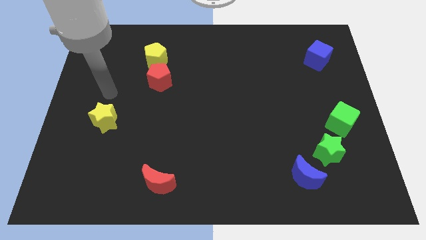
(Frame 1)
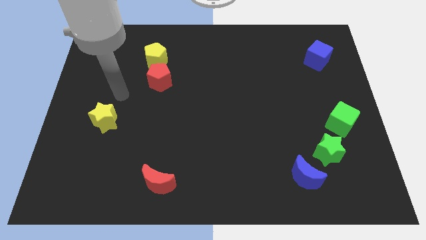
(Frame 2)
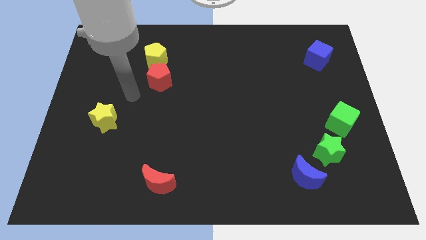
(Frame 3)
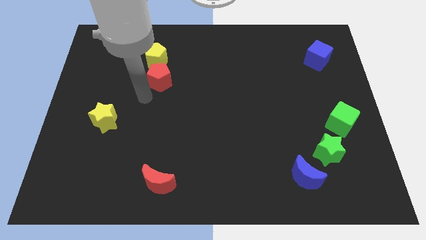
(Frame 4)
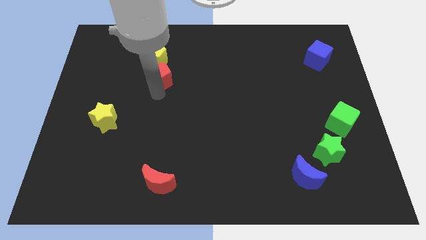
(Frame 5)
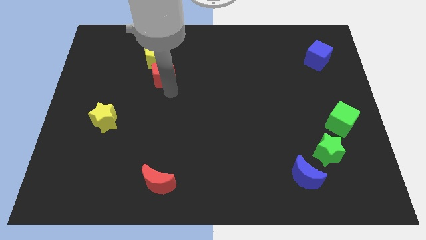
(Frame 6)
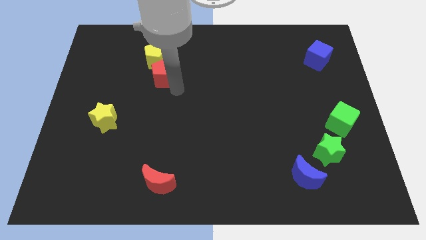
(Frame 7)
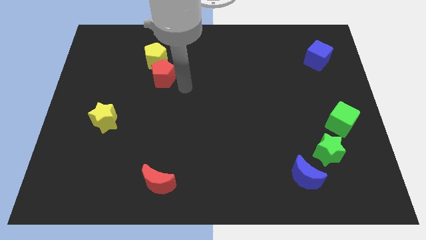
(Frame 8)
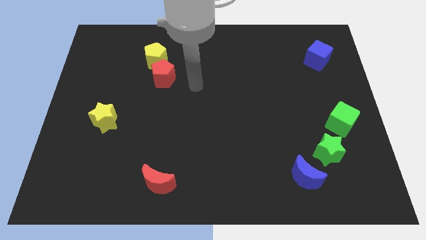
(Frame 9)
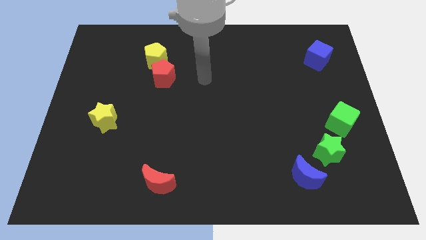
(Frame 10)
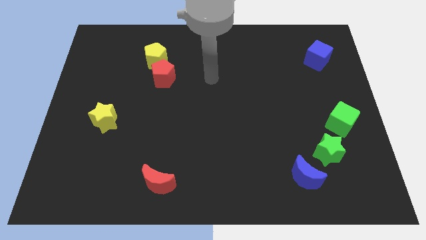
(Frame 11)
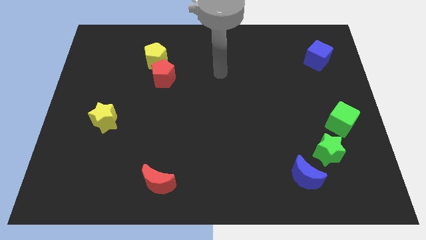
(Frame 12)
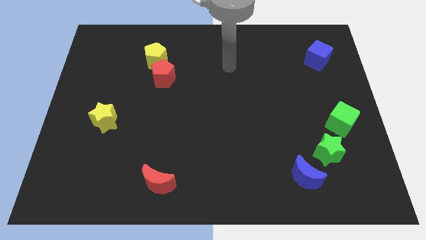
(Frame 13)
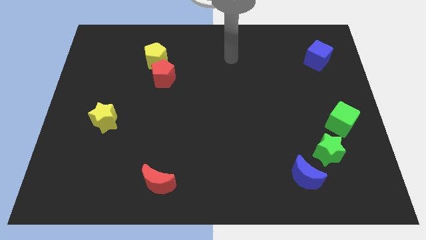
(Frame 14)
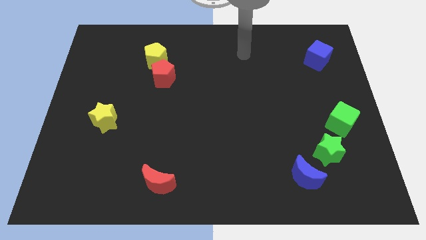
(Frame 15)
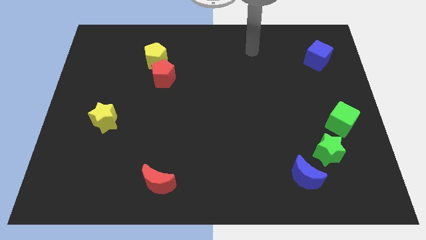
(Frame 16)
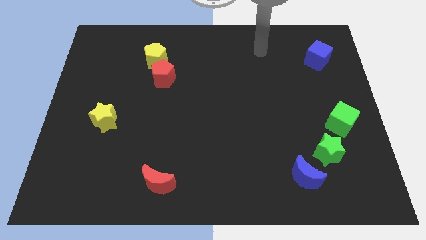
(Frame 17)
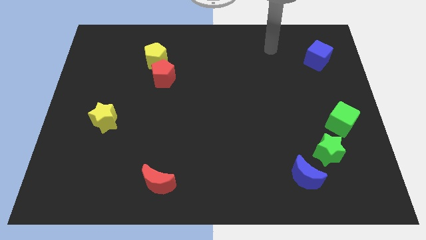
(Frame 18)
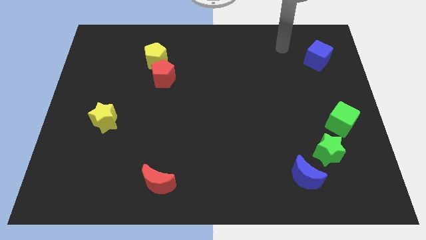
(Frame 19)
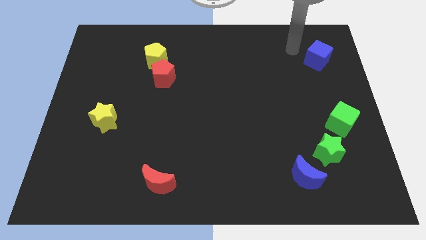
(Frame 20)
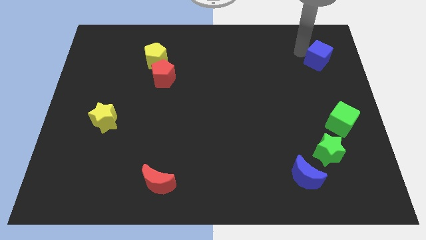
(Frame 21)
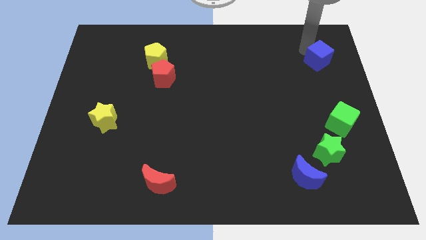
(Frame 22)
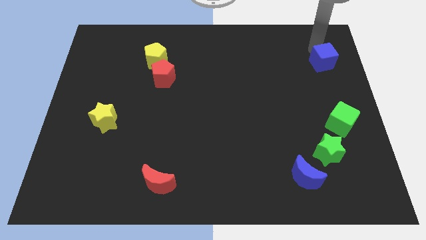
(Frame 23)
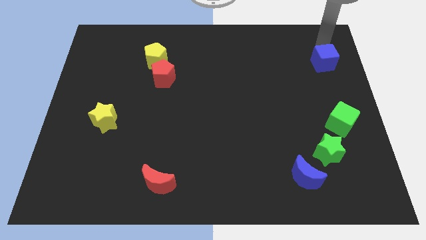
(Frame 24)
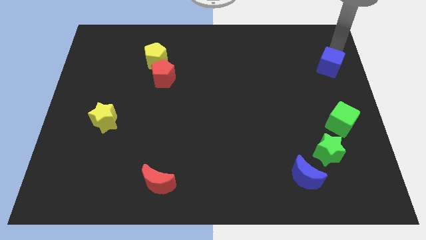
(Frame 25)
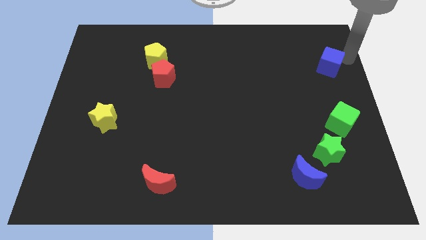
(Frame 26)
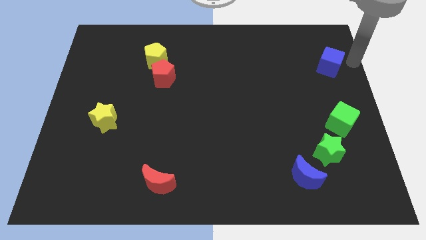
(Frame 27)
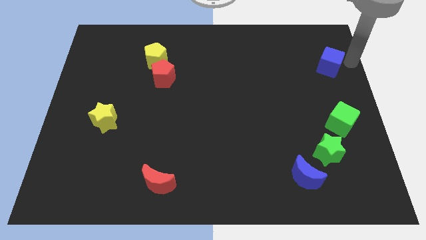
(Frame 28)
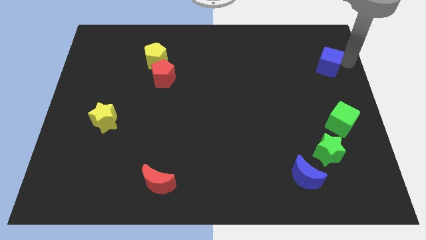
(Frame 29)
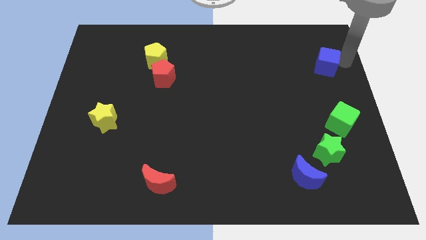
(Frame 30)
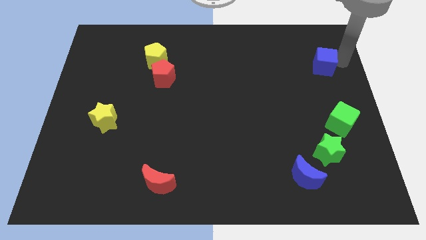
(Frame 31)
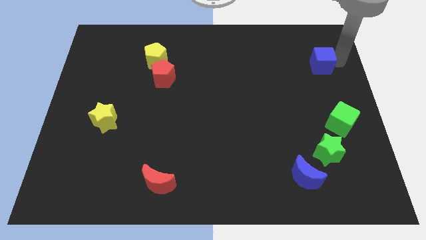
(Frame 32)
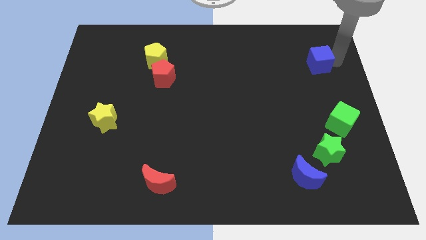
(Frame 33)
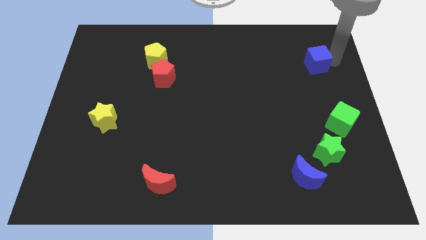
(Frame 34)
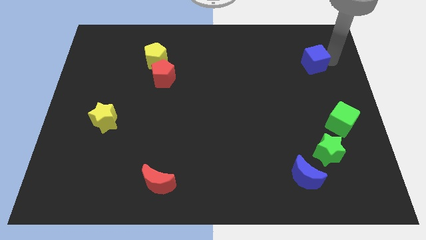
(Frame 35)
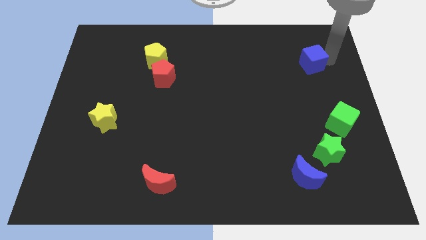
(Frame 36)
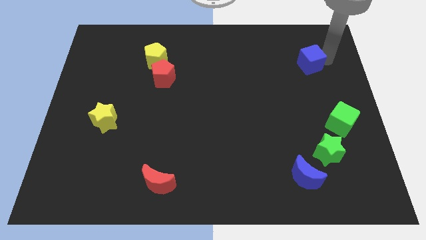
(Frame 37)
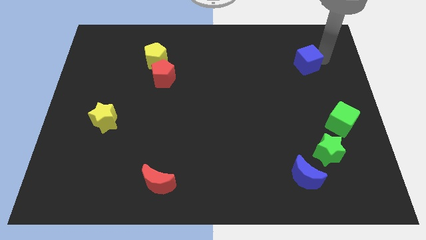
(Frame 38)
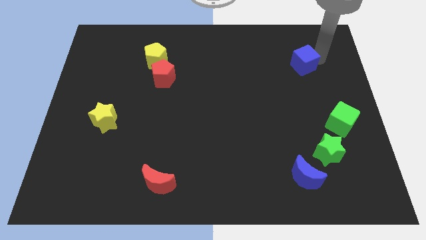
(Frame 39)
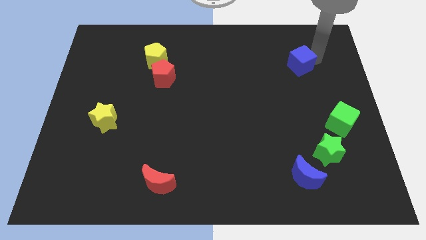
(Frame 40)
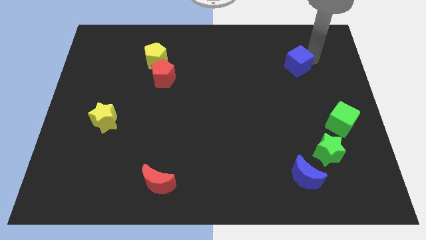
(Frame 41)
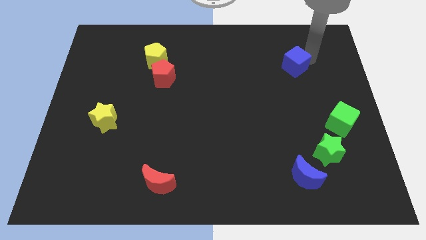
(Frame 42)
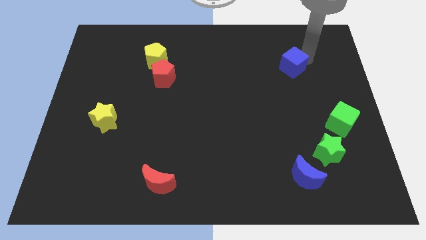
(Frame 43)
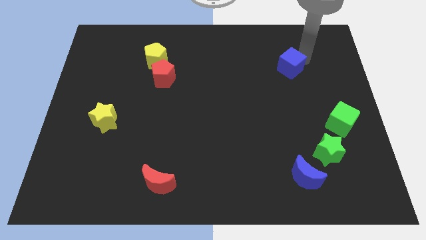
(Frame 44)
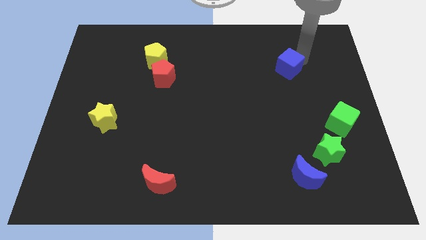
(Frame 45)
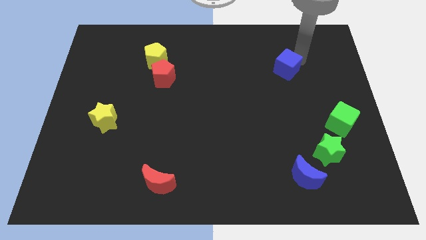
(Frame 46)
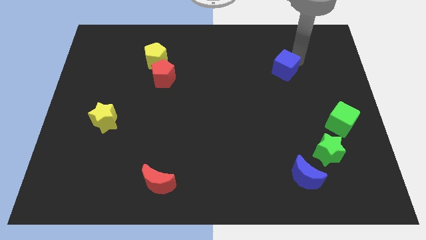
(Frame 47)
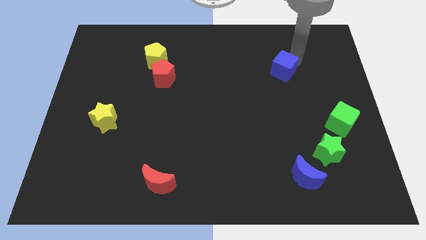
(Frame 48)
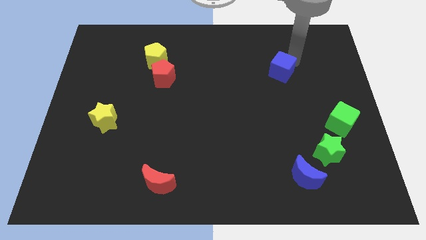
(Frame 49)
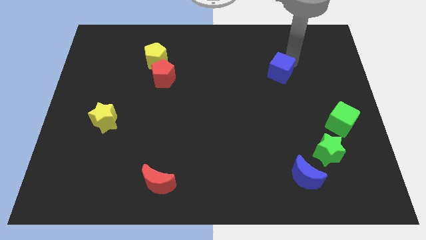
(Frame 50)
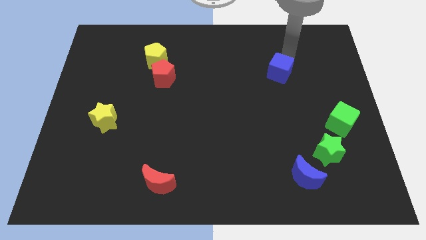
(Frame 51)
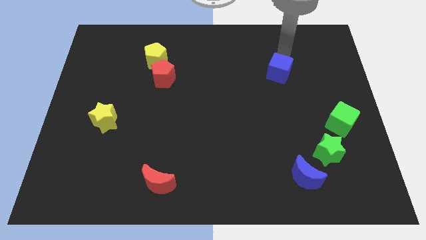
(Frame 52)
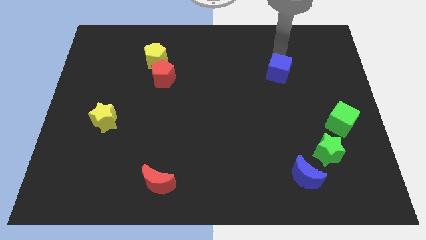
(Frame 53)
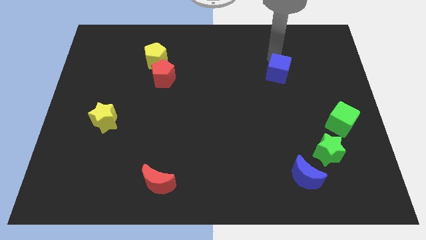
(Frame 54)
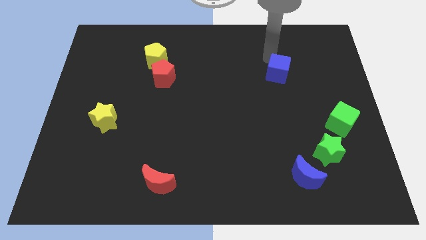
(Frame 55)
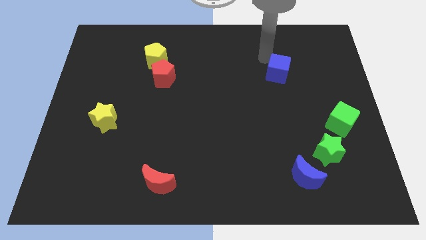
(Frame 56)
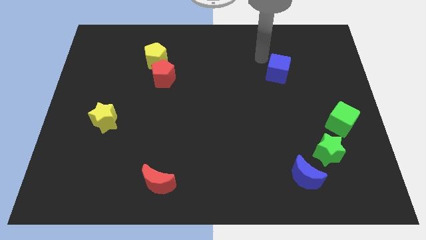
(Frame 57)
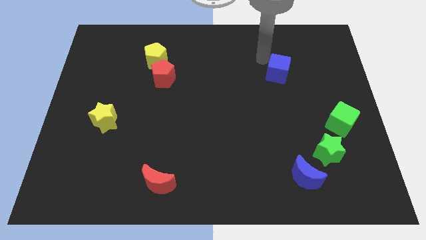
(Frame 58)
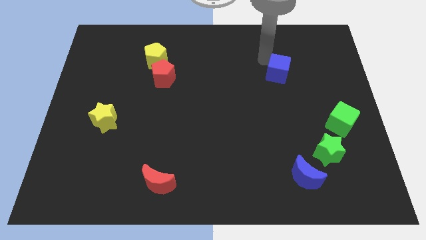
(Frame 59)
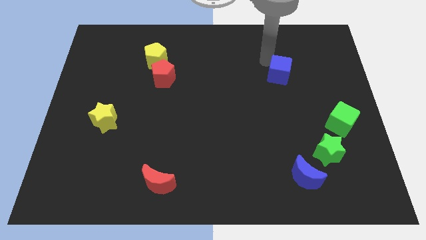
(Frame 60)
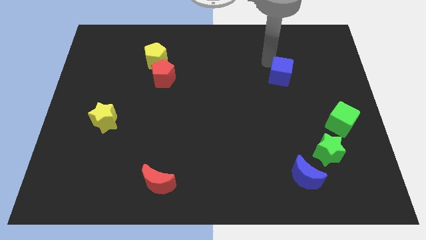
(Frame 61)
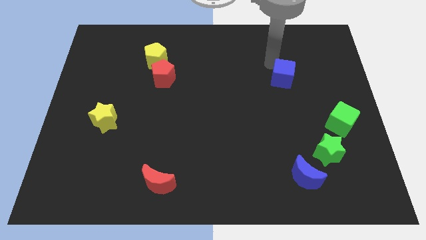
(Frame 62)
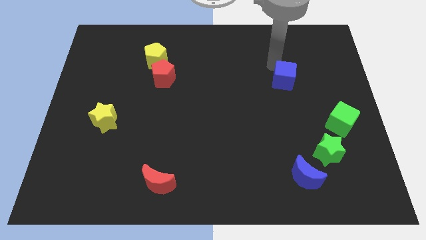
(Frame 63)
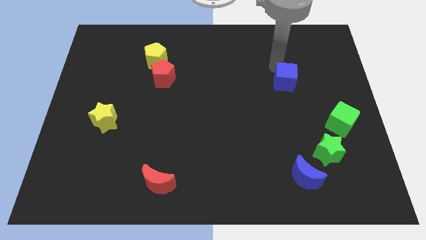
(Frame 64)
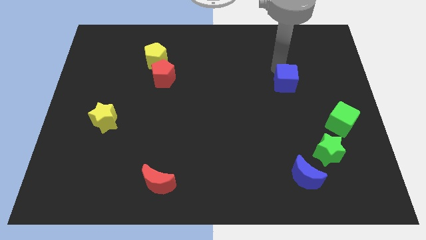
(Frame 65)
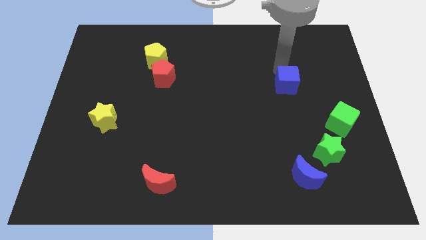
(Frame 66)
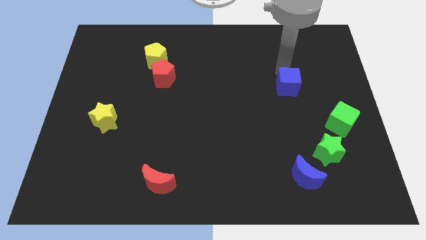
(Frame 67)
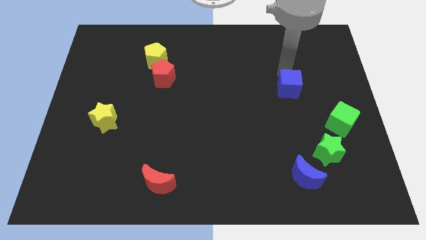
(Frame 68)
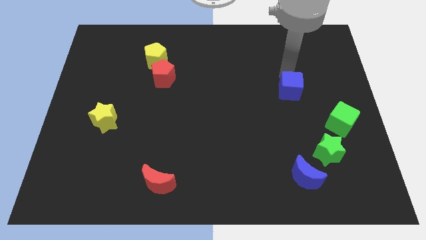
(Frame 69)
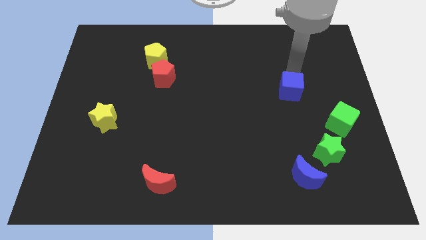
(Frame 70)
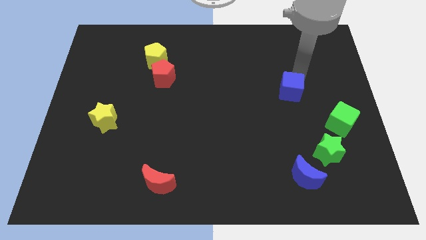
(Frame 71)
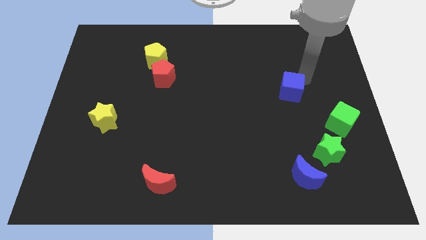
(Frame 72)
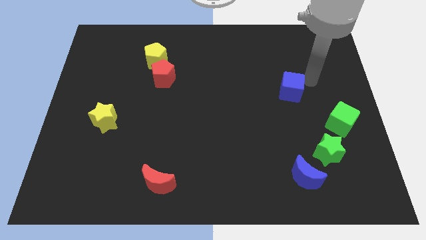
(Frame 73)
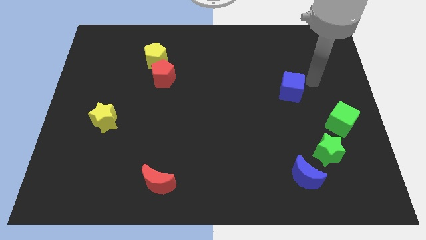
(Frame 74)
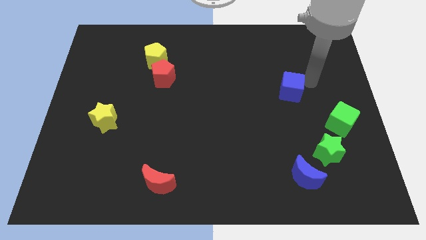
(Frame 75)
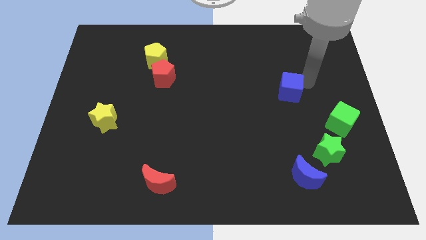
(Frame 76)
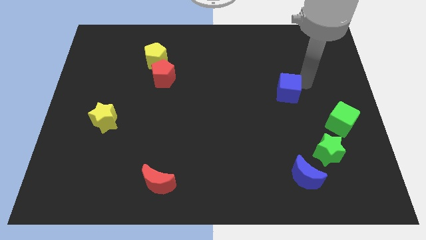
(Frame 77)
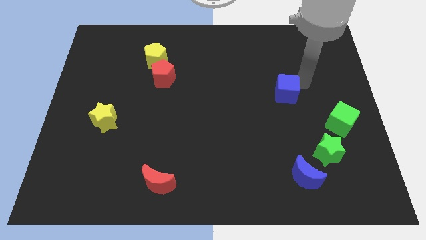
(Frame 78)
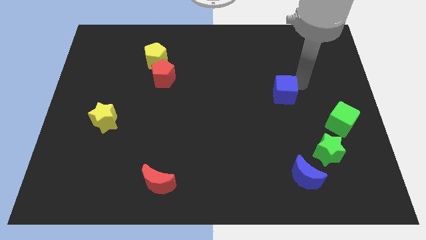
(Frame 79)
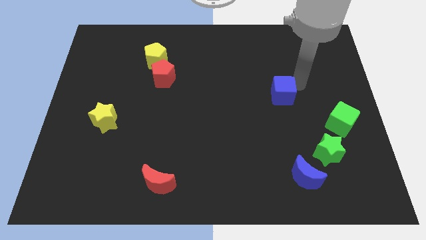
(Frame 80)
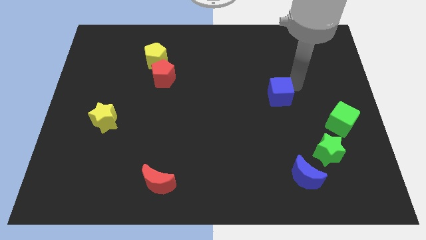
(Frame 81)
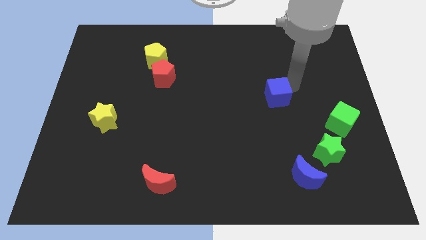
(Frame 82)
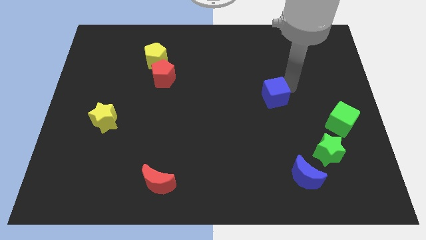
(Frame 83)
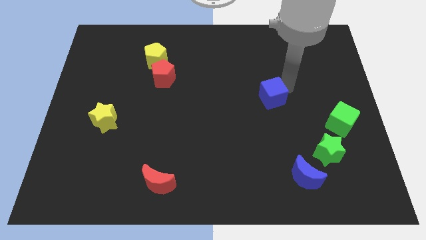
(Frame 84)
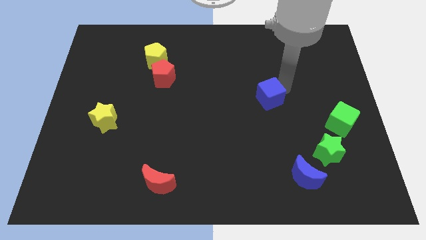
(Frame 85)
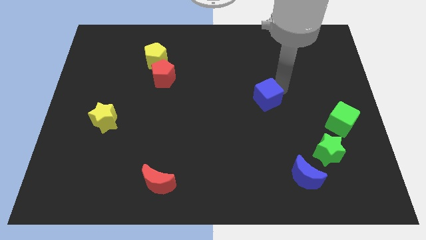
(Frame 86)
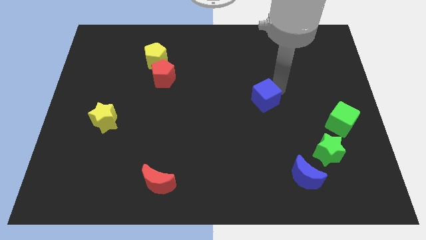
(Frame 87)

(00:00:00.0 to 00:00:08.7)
move the blue cube down and to the left

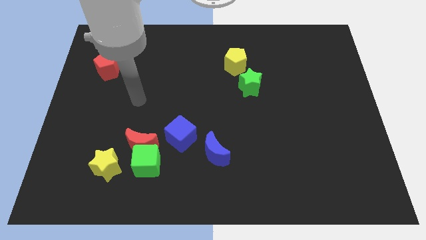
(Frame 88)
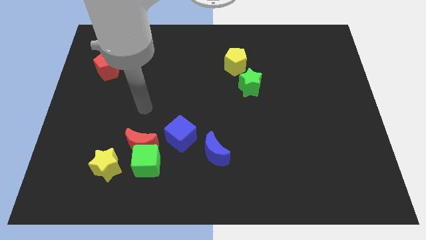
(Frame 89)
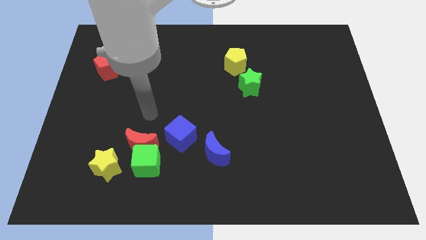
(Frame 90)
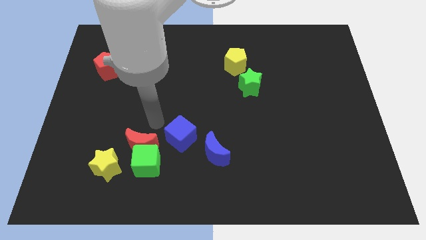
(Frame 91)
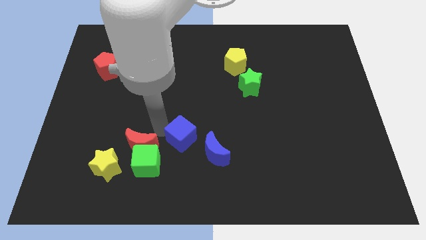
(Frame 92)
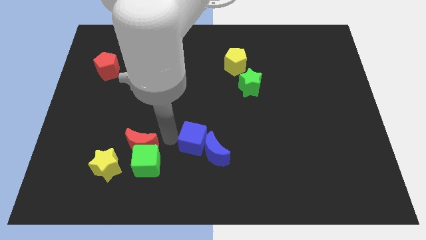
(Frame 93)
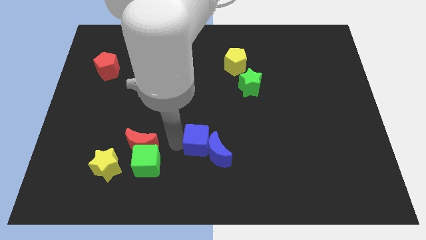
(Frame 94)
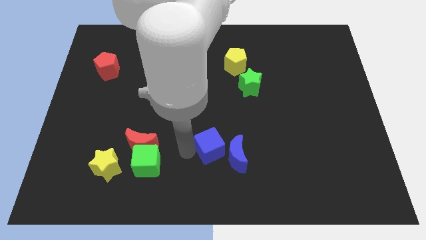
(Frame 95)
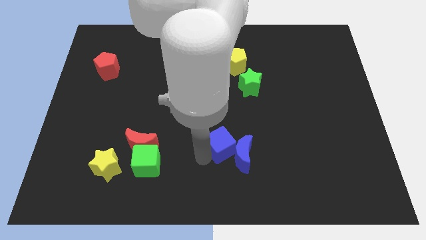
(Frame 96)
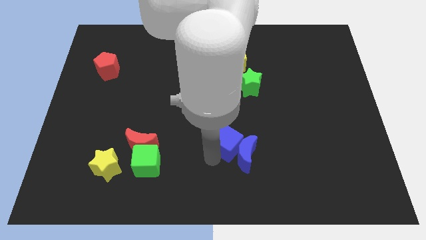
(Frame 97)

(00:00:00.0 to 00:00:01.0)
slide the blue moon to the right somewhat
